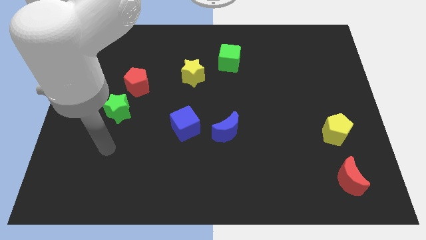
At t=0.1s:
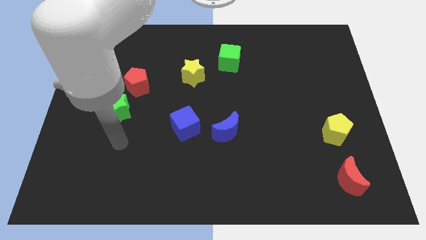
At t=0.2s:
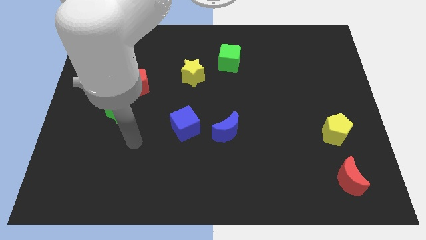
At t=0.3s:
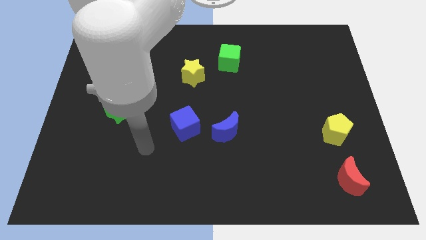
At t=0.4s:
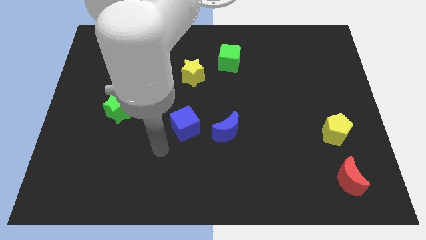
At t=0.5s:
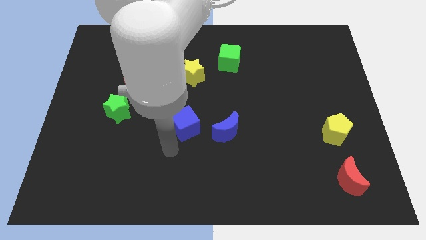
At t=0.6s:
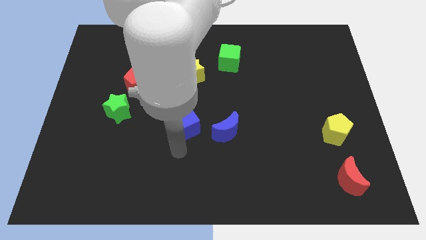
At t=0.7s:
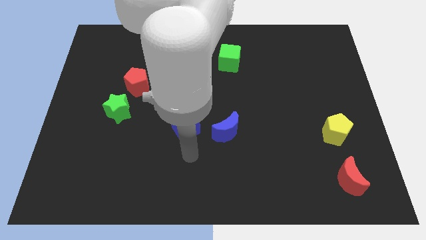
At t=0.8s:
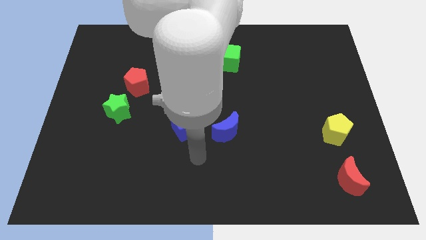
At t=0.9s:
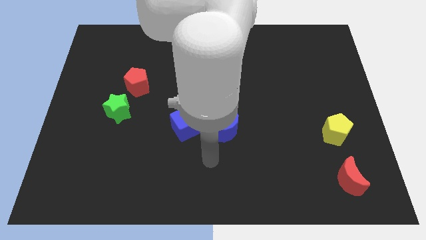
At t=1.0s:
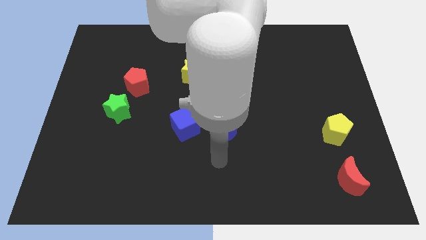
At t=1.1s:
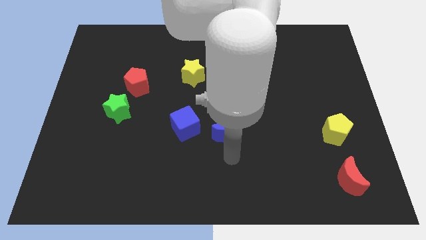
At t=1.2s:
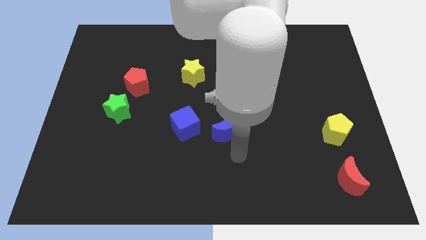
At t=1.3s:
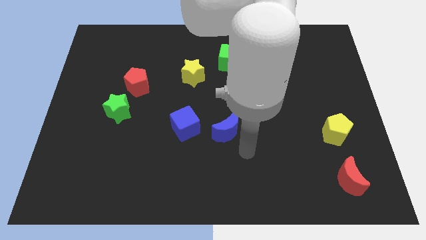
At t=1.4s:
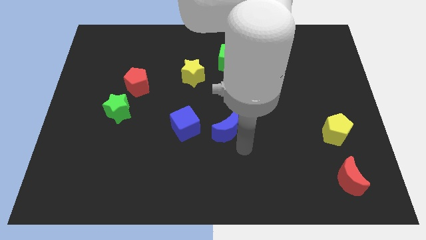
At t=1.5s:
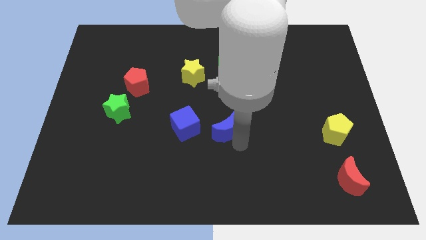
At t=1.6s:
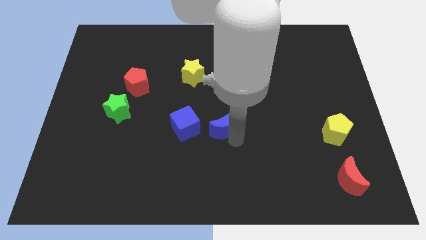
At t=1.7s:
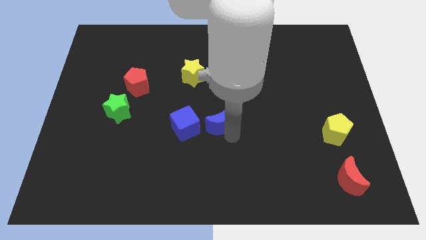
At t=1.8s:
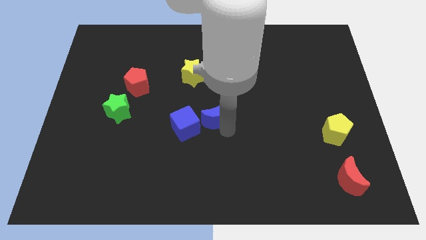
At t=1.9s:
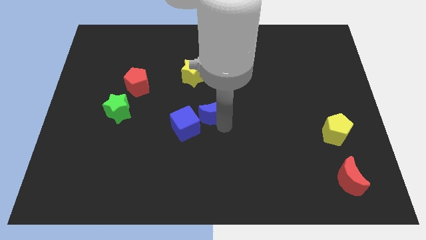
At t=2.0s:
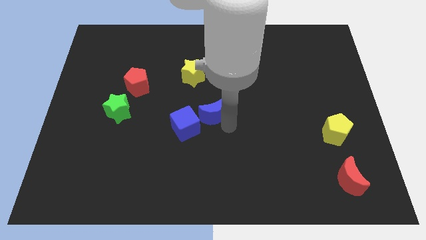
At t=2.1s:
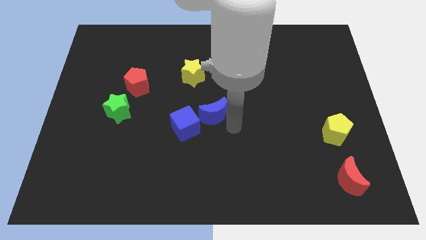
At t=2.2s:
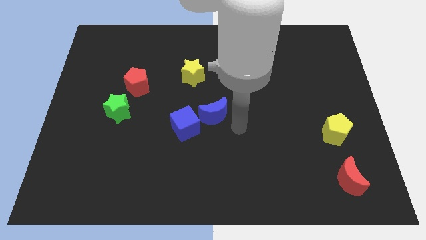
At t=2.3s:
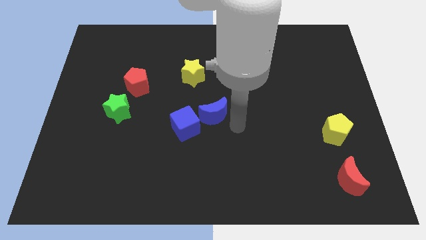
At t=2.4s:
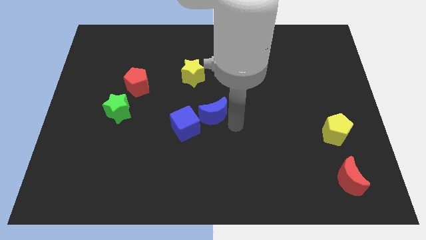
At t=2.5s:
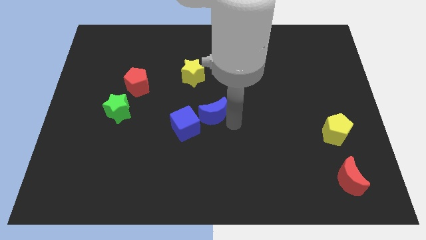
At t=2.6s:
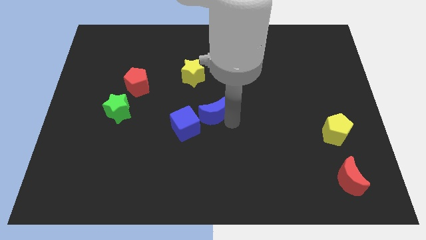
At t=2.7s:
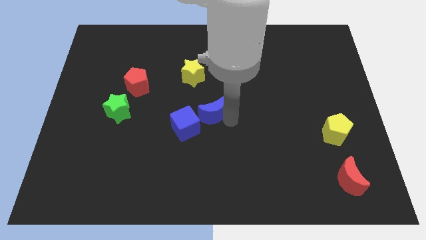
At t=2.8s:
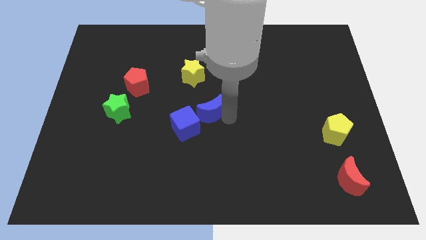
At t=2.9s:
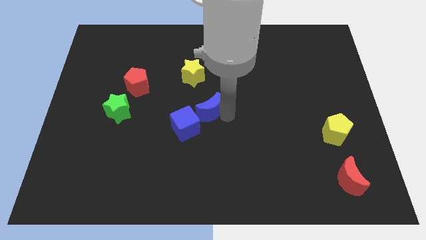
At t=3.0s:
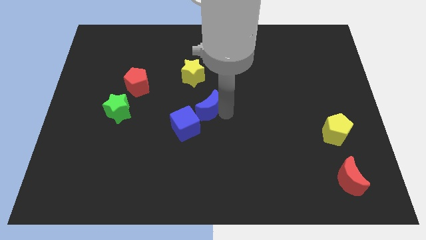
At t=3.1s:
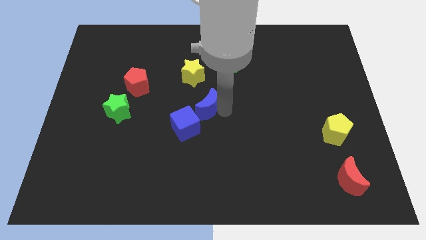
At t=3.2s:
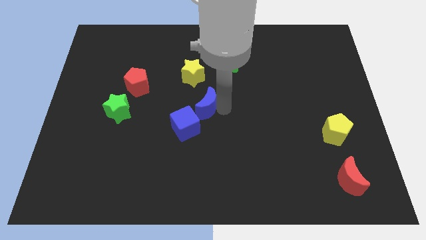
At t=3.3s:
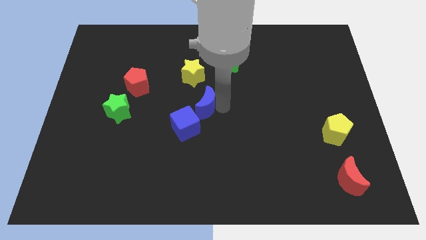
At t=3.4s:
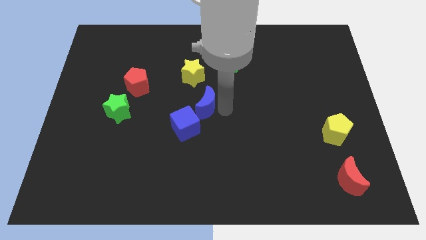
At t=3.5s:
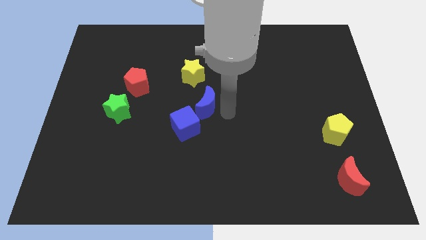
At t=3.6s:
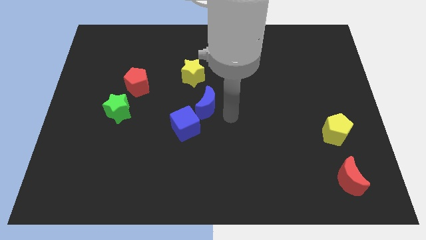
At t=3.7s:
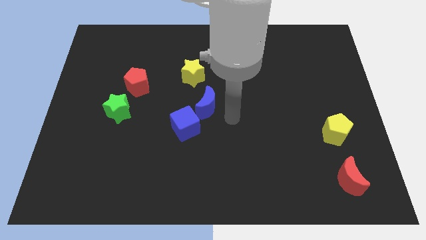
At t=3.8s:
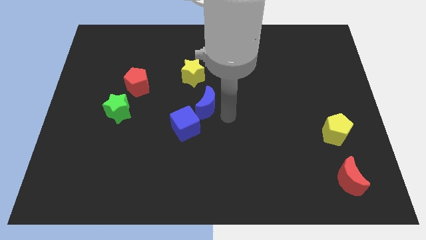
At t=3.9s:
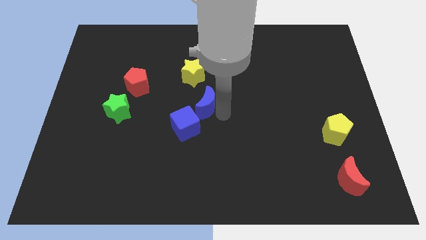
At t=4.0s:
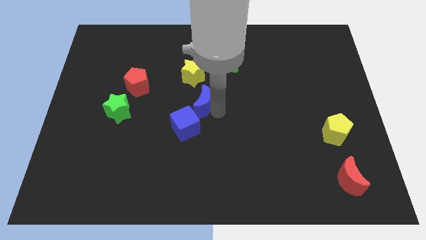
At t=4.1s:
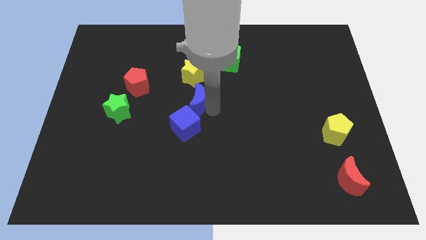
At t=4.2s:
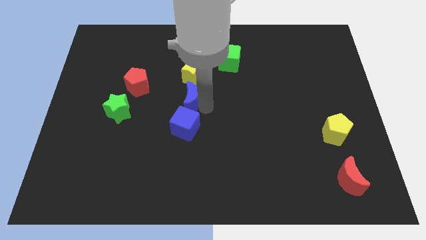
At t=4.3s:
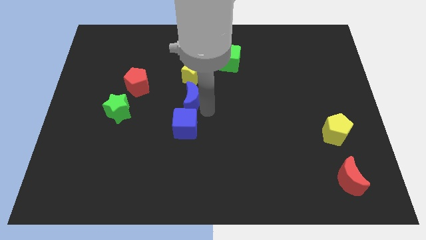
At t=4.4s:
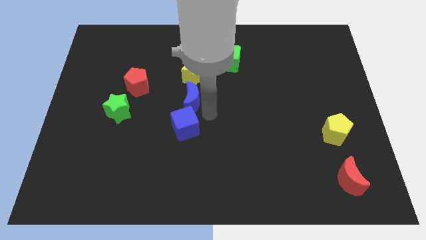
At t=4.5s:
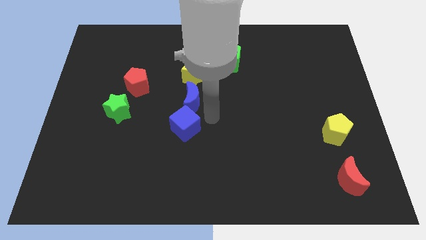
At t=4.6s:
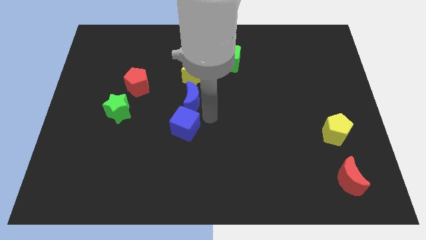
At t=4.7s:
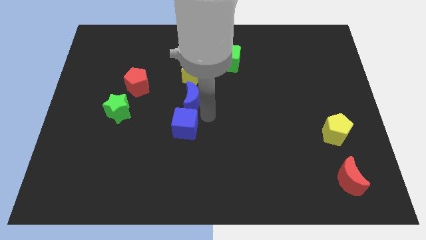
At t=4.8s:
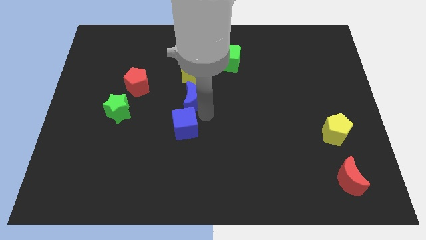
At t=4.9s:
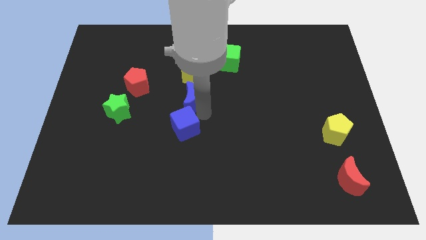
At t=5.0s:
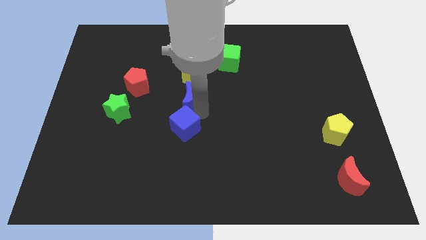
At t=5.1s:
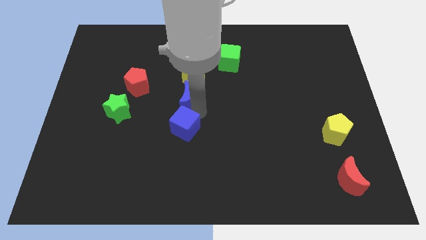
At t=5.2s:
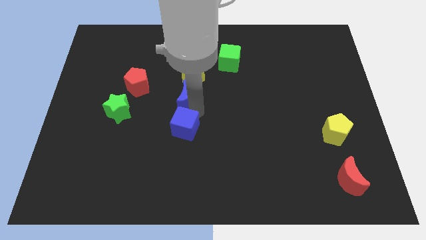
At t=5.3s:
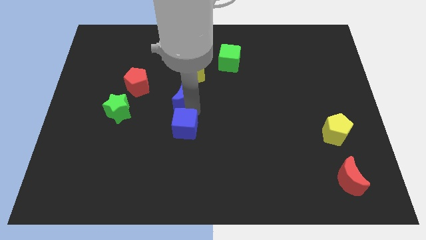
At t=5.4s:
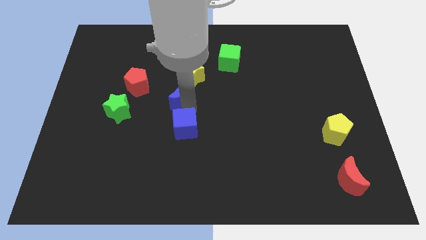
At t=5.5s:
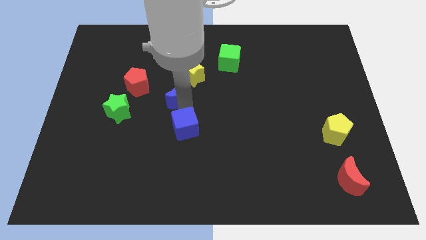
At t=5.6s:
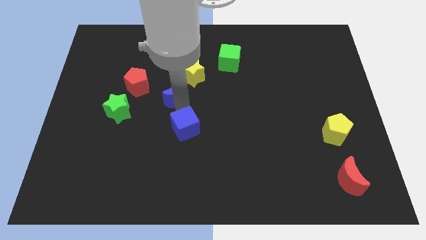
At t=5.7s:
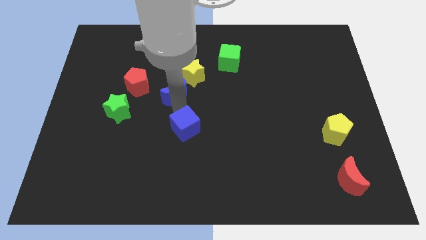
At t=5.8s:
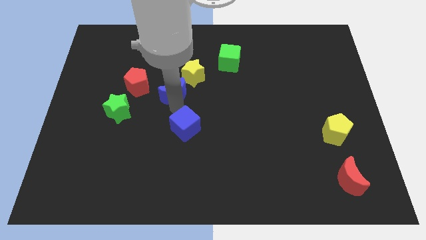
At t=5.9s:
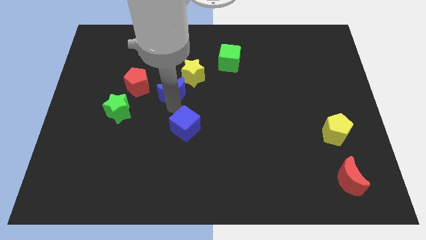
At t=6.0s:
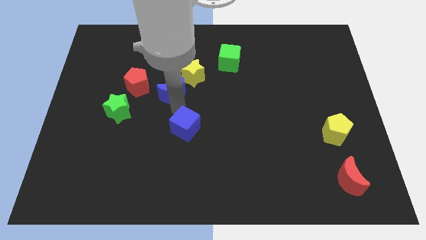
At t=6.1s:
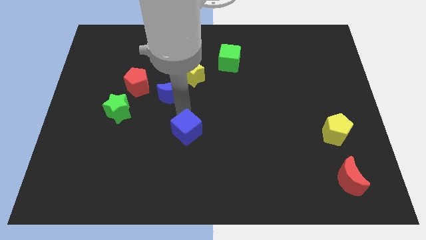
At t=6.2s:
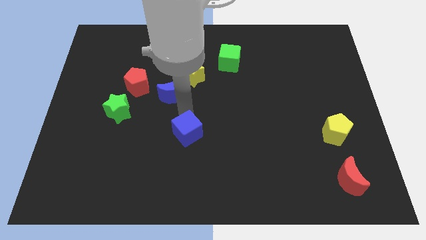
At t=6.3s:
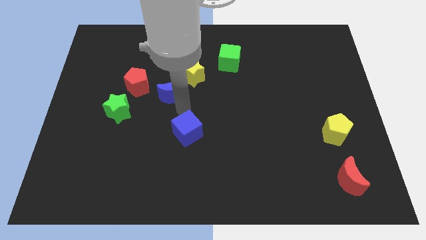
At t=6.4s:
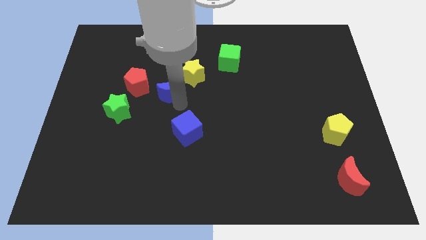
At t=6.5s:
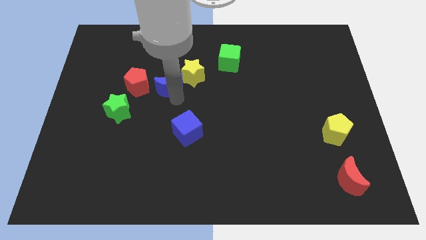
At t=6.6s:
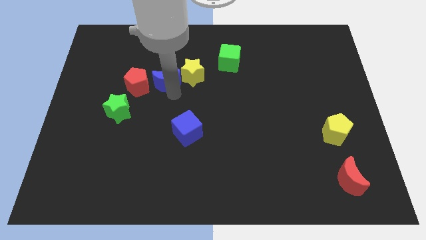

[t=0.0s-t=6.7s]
push the blue moon diagonally upwards and to the left

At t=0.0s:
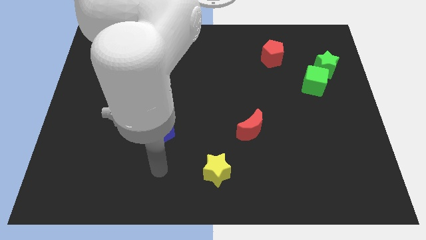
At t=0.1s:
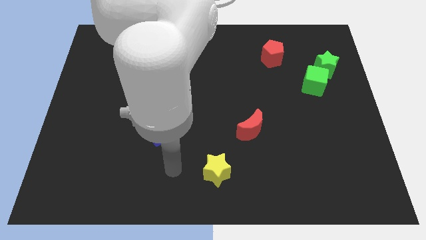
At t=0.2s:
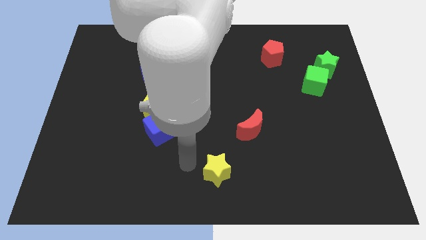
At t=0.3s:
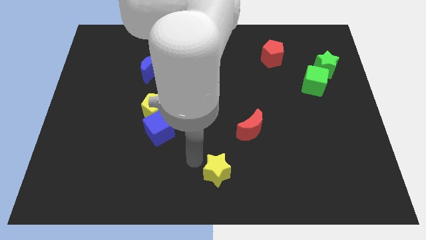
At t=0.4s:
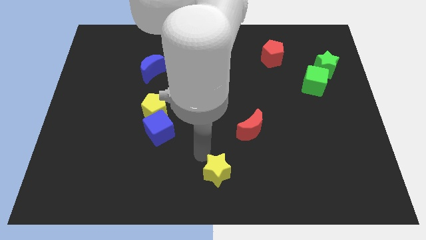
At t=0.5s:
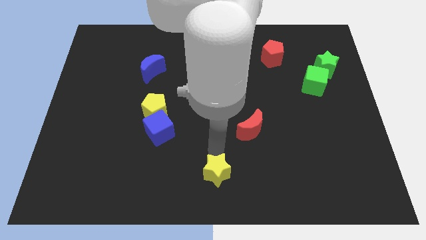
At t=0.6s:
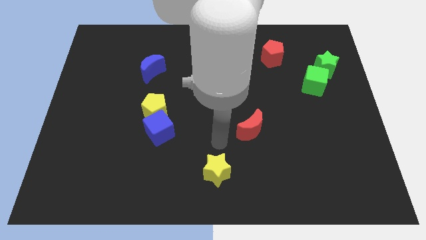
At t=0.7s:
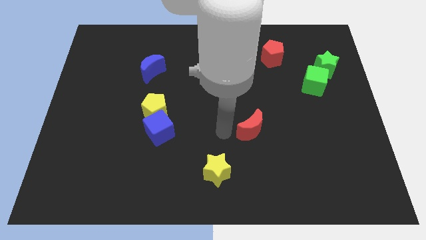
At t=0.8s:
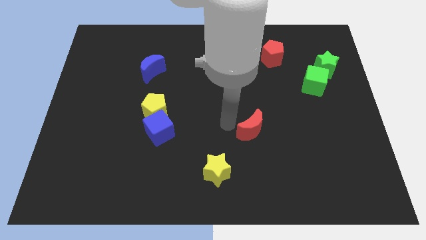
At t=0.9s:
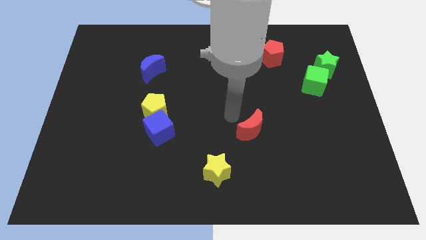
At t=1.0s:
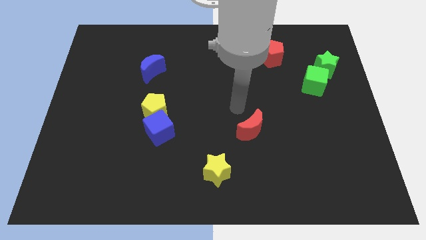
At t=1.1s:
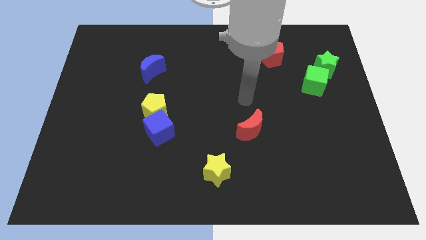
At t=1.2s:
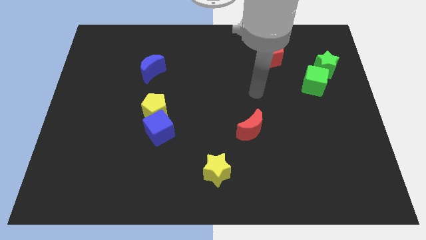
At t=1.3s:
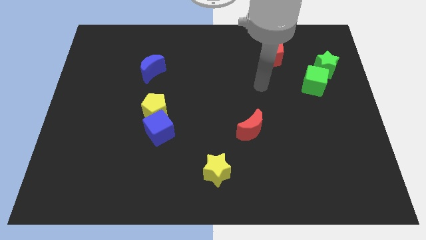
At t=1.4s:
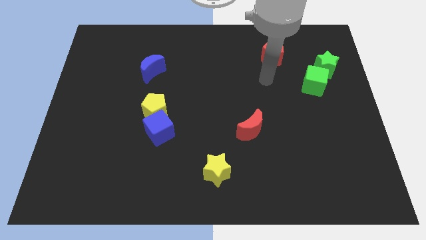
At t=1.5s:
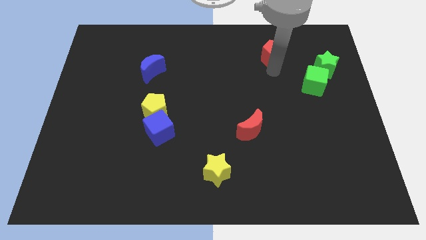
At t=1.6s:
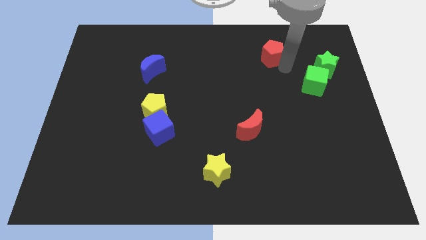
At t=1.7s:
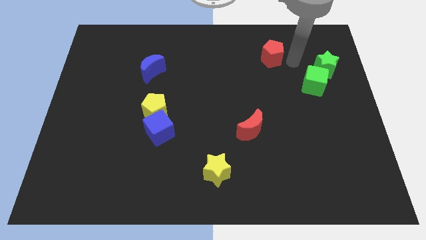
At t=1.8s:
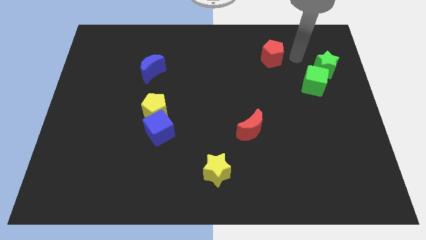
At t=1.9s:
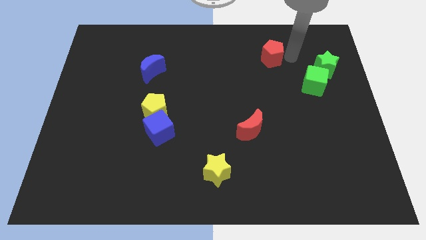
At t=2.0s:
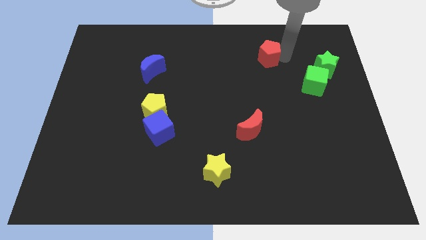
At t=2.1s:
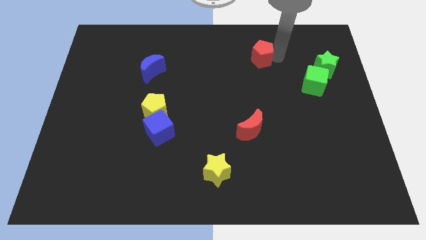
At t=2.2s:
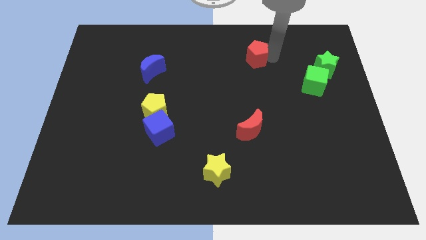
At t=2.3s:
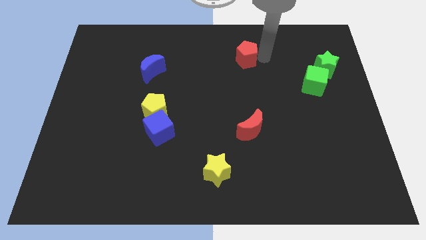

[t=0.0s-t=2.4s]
slightly slide the red pentagon left
